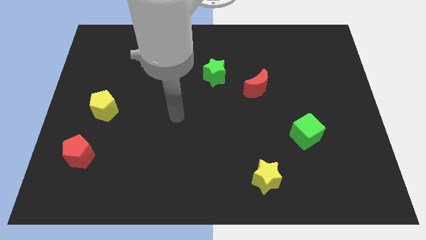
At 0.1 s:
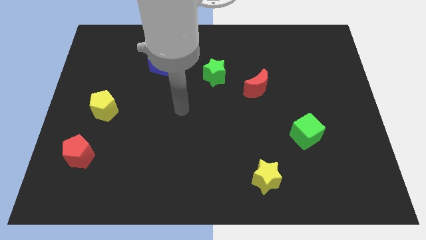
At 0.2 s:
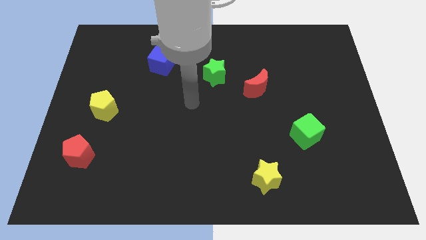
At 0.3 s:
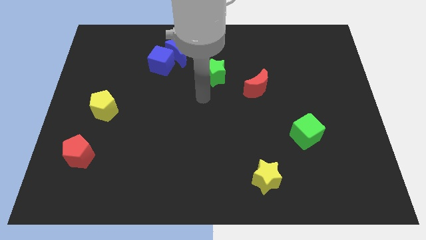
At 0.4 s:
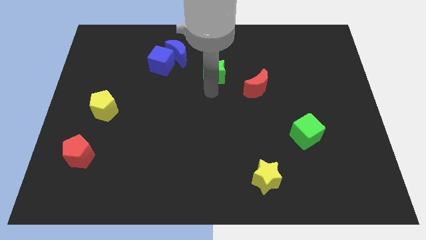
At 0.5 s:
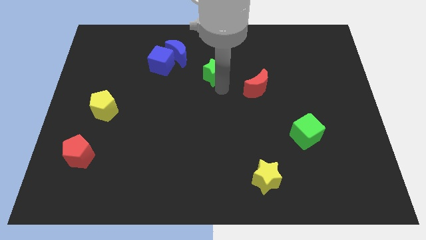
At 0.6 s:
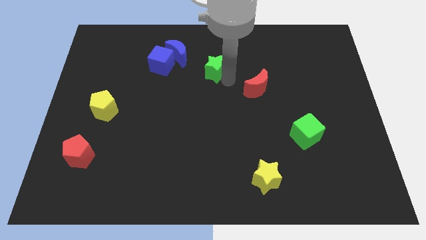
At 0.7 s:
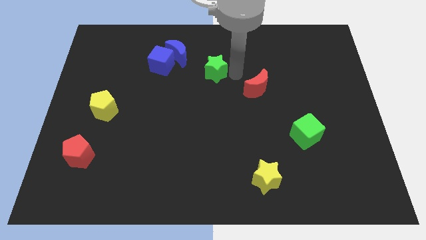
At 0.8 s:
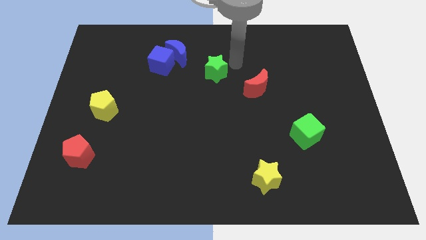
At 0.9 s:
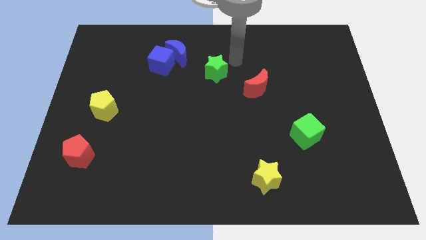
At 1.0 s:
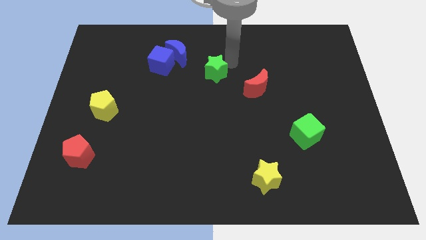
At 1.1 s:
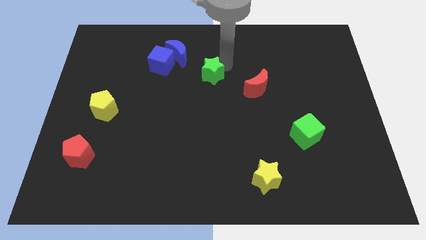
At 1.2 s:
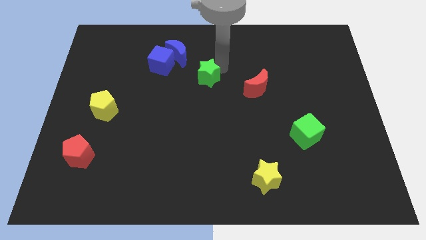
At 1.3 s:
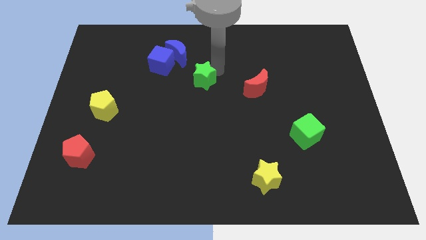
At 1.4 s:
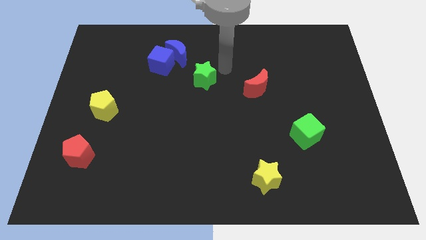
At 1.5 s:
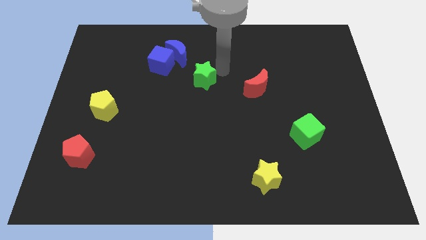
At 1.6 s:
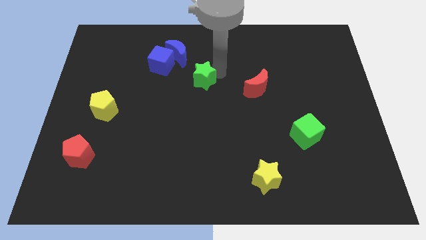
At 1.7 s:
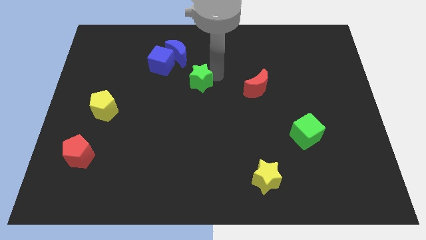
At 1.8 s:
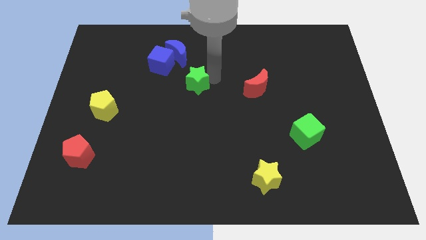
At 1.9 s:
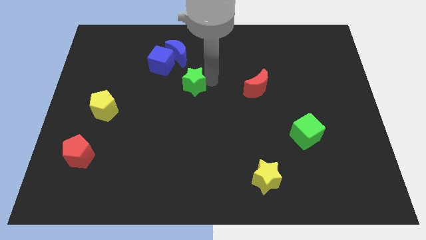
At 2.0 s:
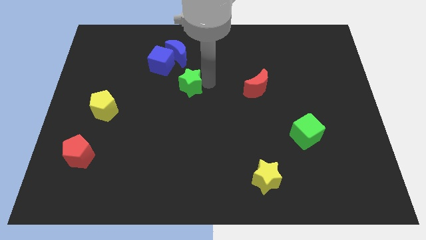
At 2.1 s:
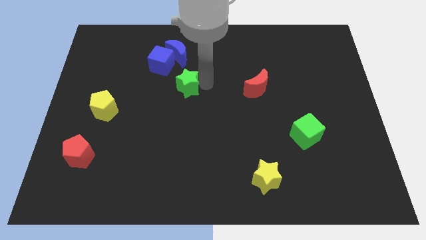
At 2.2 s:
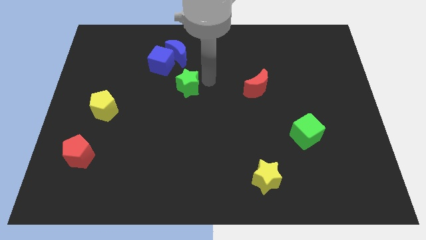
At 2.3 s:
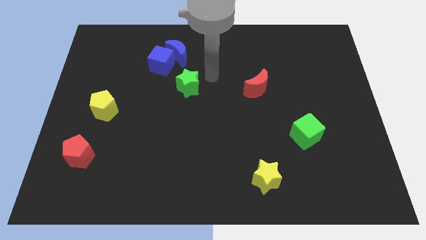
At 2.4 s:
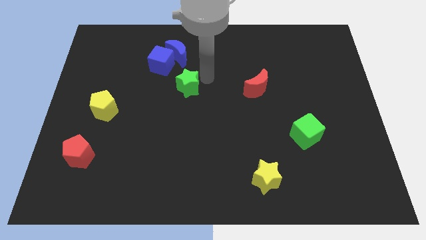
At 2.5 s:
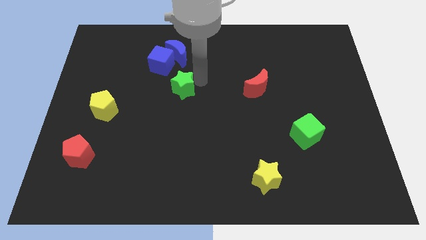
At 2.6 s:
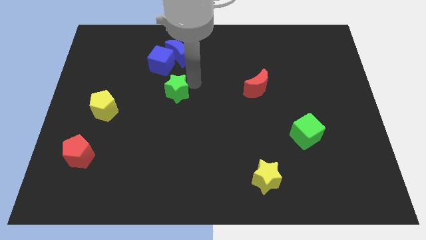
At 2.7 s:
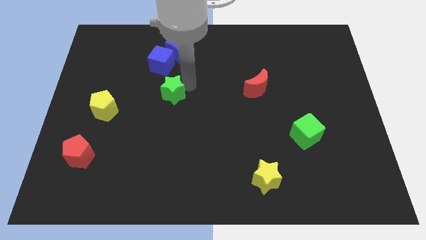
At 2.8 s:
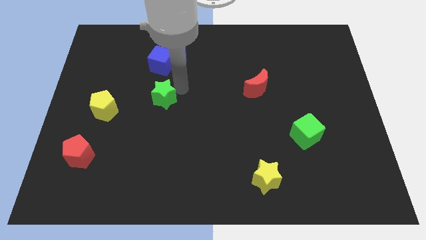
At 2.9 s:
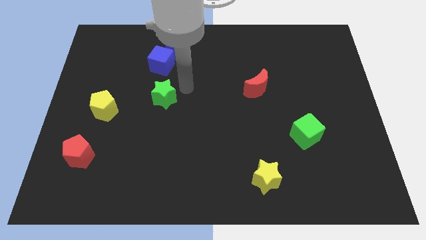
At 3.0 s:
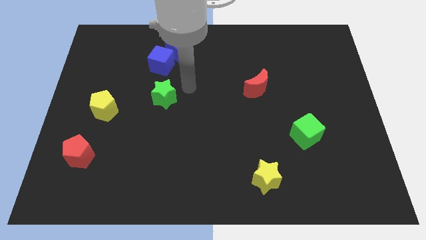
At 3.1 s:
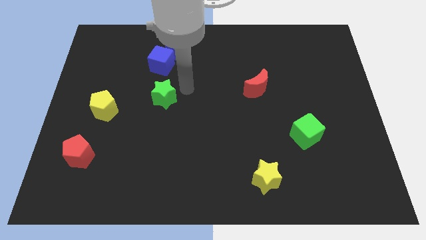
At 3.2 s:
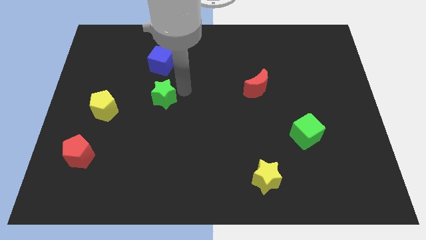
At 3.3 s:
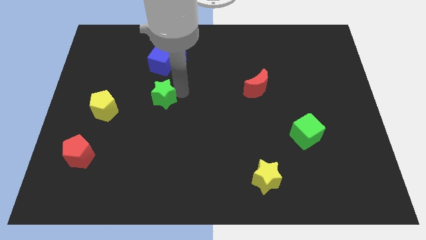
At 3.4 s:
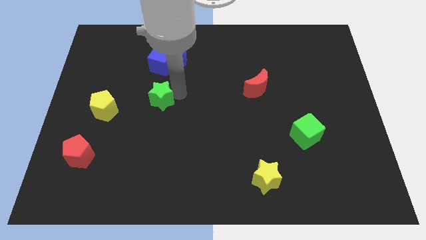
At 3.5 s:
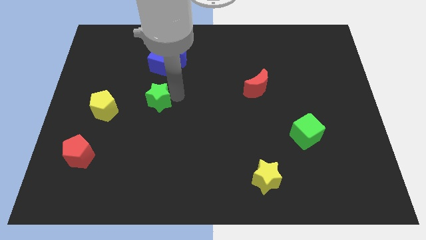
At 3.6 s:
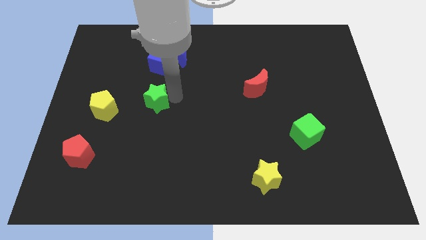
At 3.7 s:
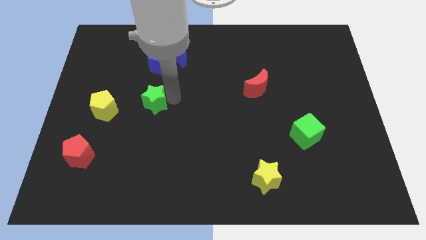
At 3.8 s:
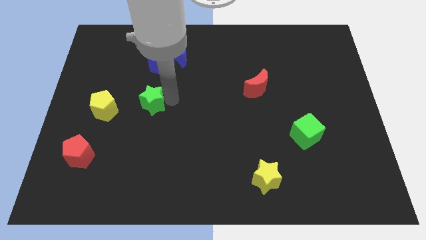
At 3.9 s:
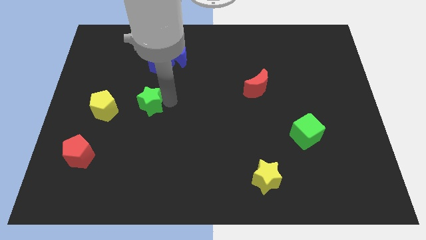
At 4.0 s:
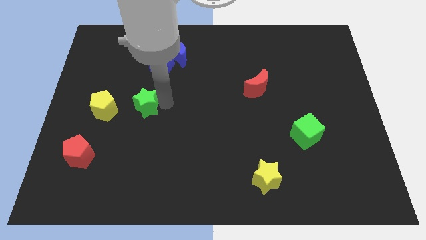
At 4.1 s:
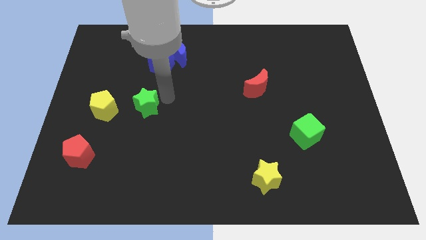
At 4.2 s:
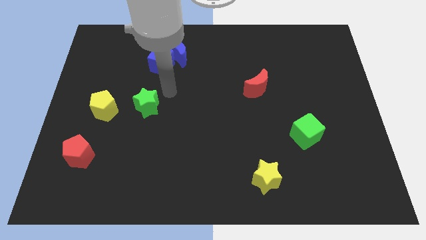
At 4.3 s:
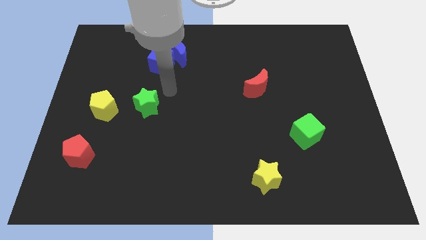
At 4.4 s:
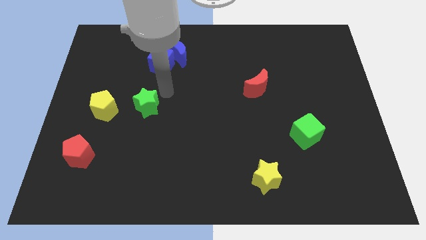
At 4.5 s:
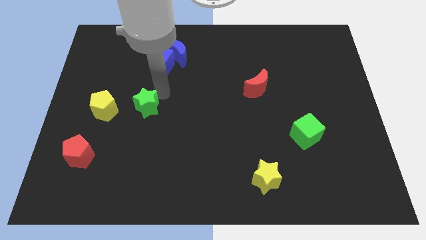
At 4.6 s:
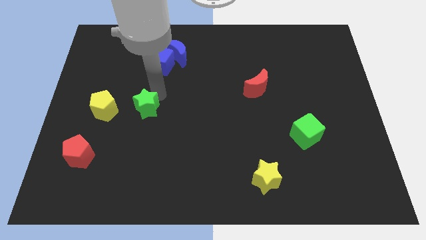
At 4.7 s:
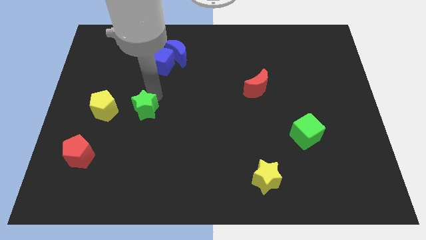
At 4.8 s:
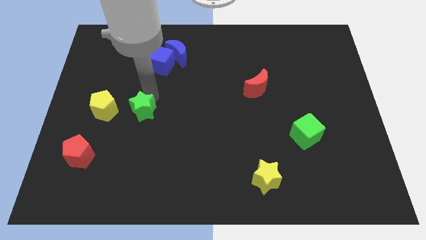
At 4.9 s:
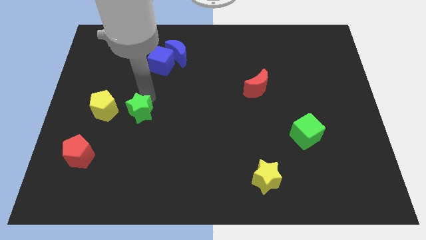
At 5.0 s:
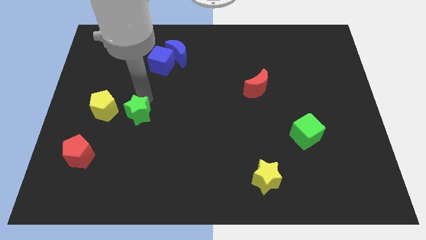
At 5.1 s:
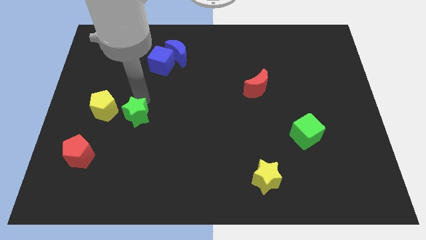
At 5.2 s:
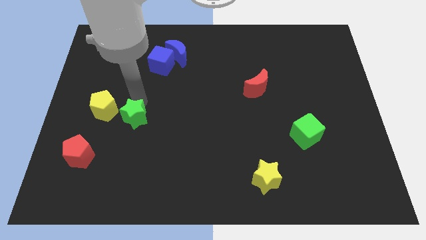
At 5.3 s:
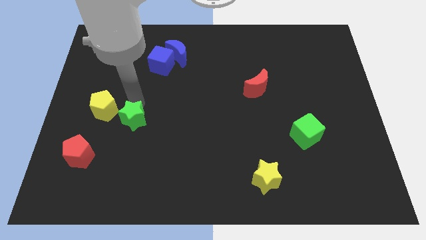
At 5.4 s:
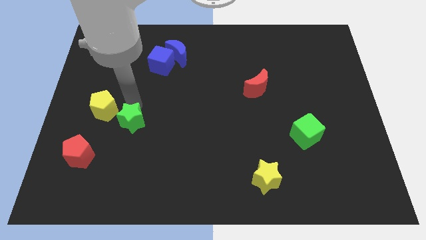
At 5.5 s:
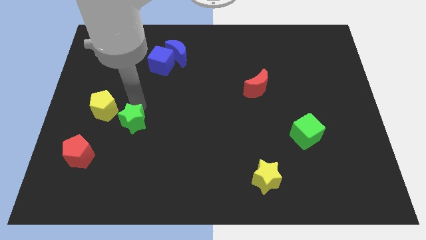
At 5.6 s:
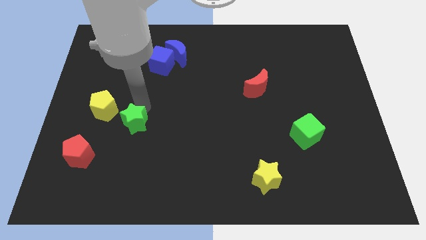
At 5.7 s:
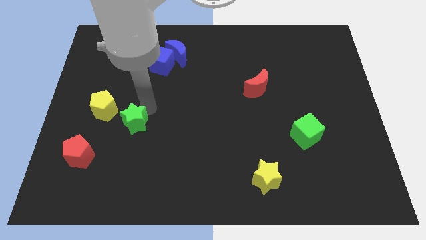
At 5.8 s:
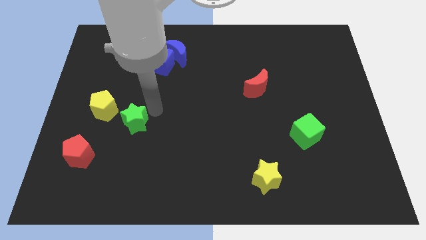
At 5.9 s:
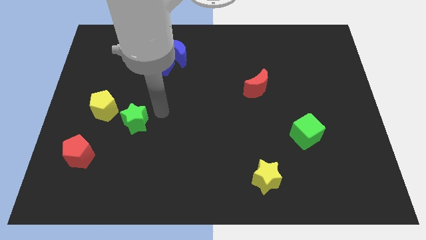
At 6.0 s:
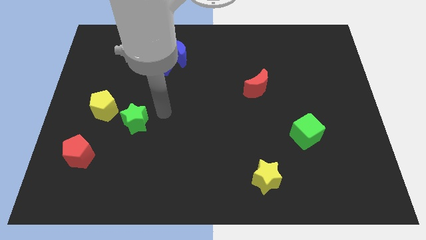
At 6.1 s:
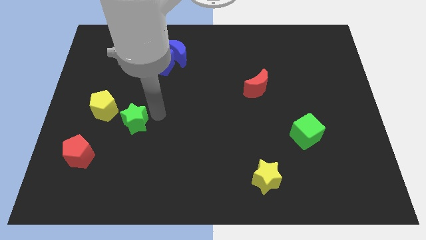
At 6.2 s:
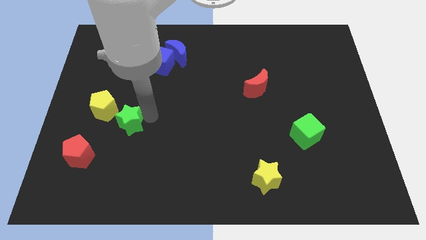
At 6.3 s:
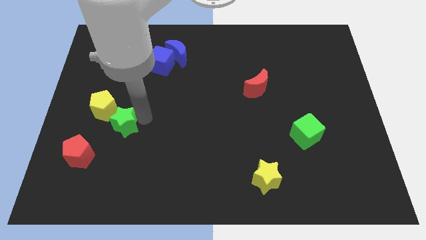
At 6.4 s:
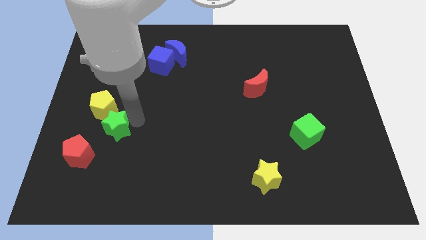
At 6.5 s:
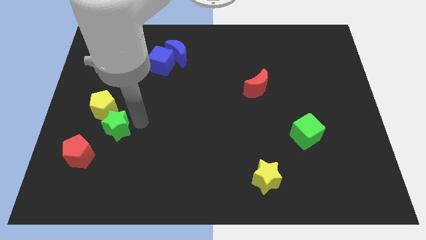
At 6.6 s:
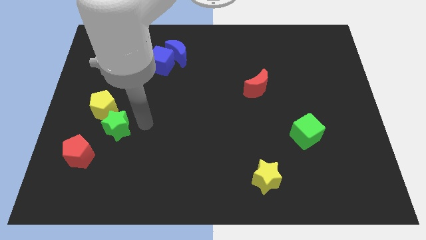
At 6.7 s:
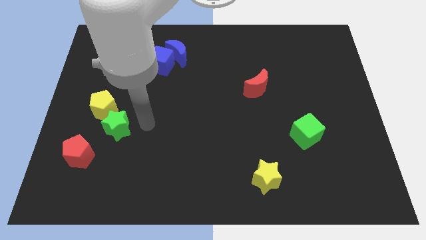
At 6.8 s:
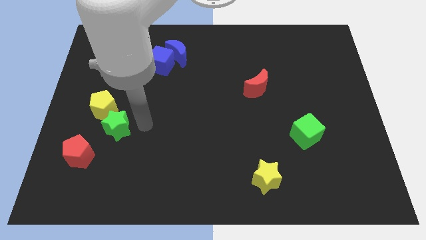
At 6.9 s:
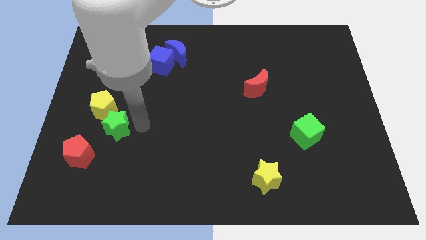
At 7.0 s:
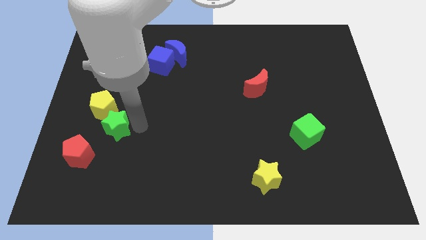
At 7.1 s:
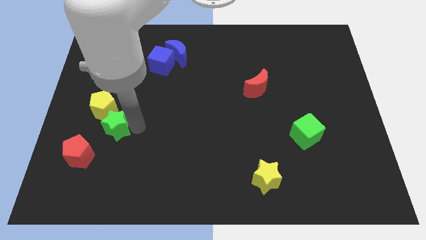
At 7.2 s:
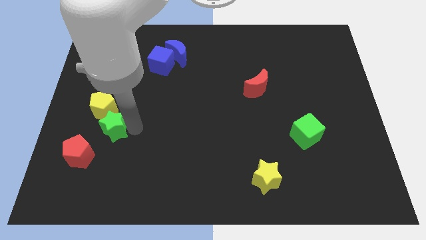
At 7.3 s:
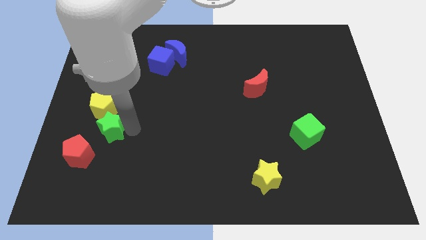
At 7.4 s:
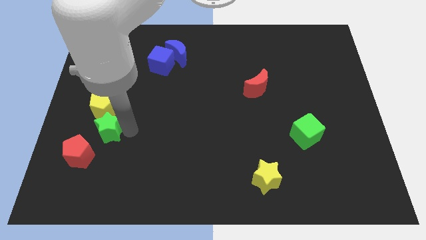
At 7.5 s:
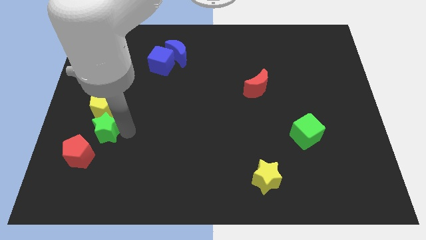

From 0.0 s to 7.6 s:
move the green star to the top of the red pentagon
